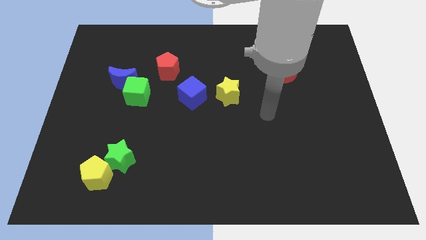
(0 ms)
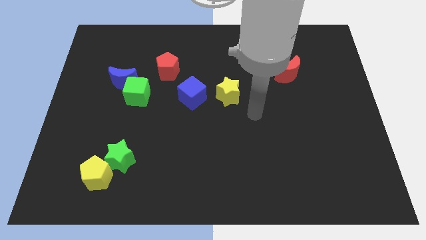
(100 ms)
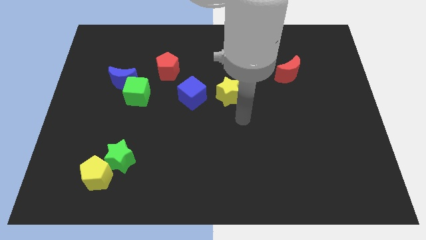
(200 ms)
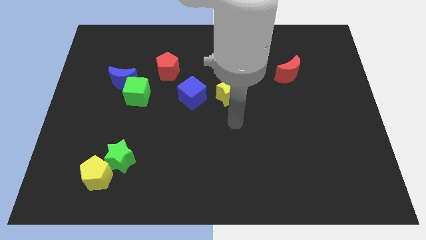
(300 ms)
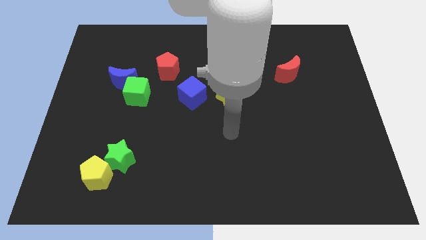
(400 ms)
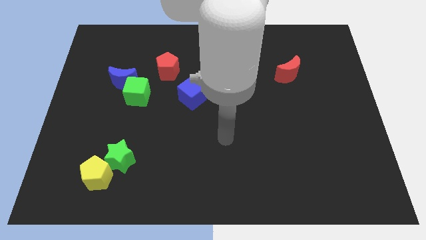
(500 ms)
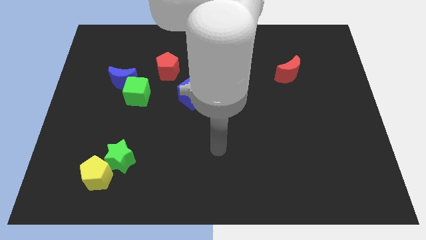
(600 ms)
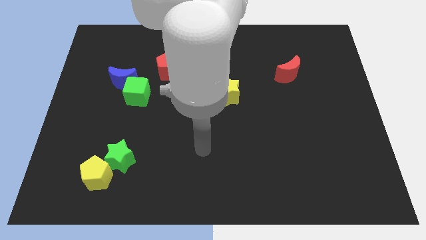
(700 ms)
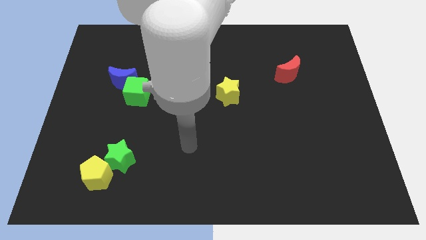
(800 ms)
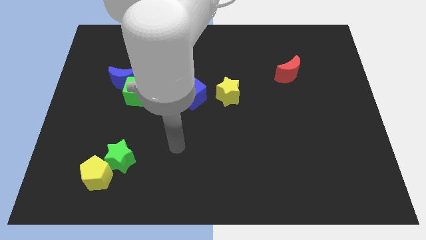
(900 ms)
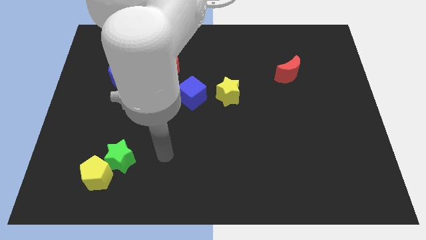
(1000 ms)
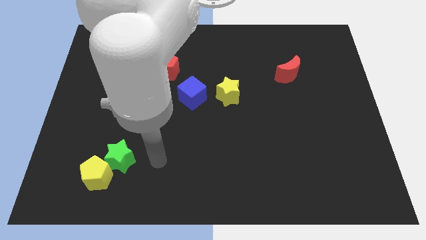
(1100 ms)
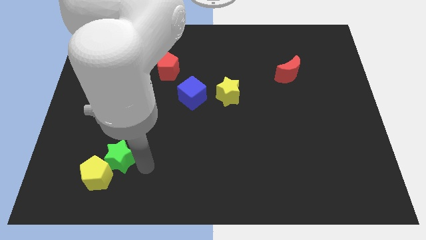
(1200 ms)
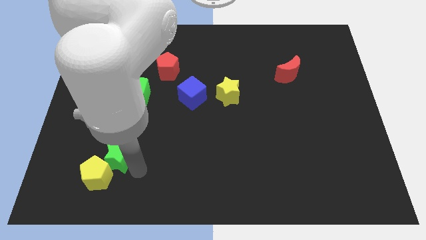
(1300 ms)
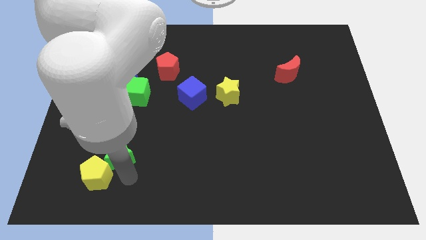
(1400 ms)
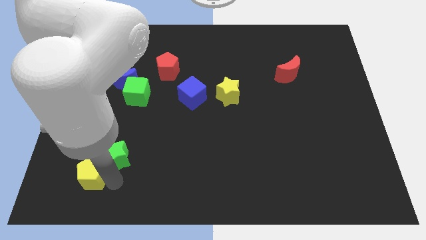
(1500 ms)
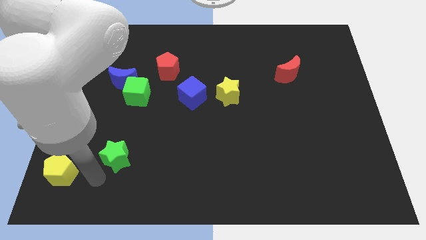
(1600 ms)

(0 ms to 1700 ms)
separate the green star from the yellow pentagon

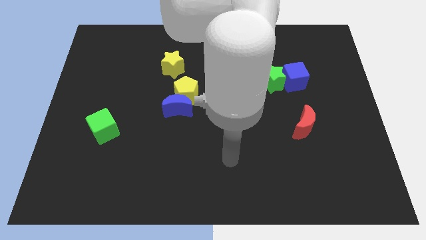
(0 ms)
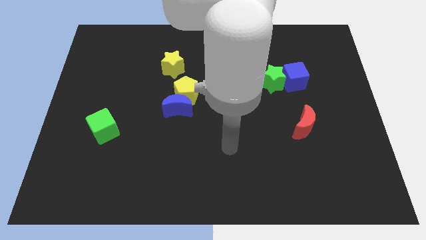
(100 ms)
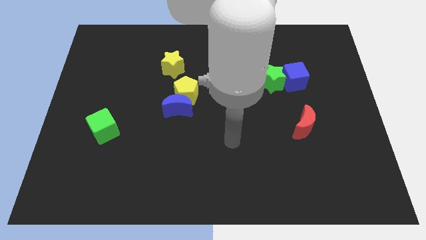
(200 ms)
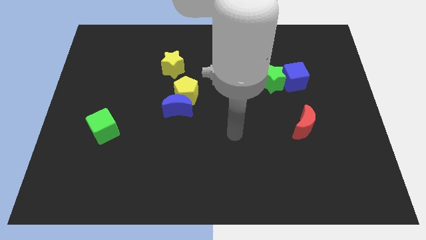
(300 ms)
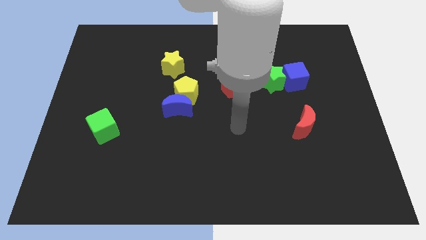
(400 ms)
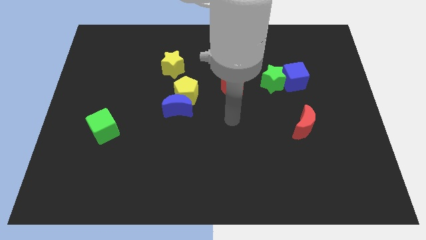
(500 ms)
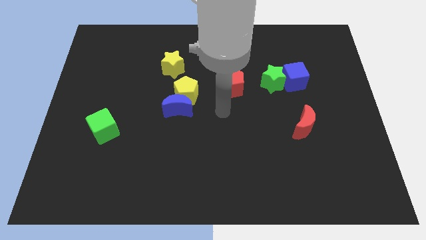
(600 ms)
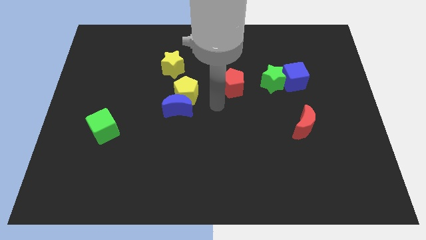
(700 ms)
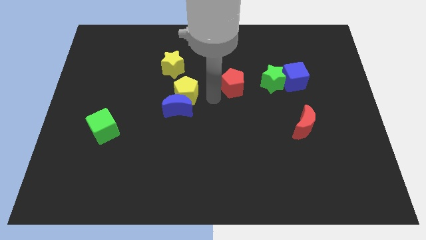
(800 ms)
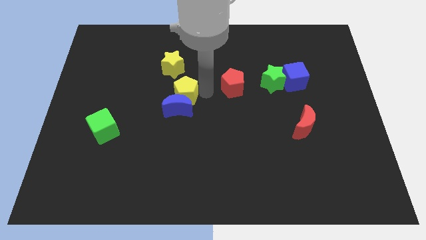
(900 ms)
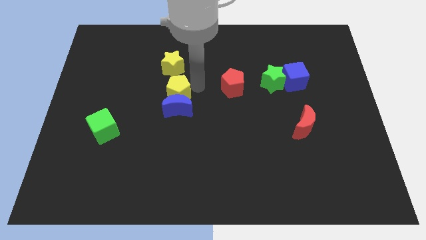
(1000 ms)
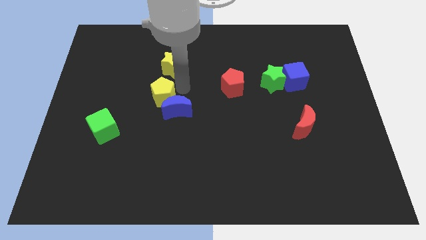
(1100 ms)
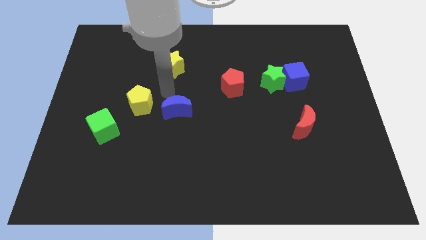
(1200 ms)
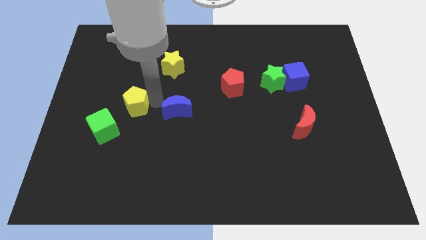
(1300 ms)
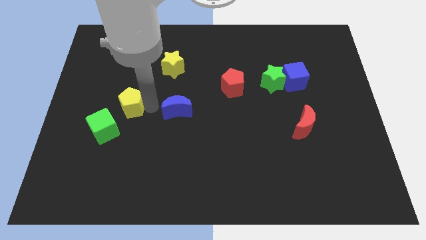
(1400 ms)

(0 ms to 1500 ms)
move the blue moon away from the yellow pentagon

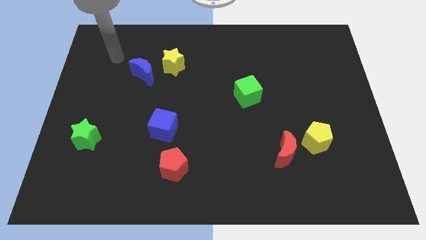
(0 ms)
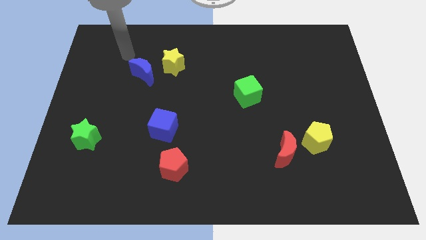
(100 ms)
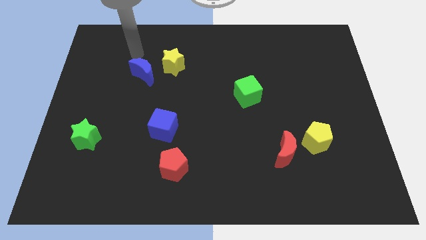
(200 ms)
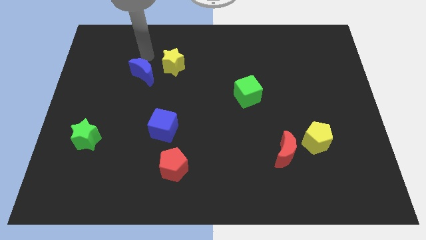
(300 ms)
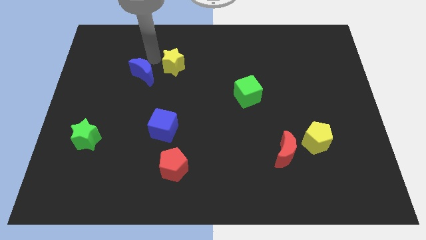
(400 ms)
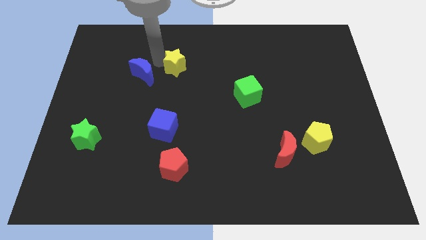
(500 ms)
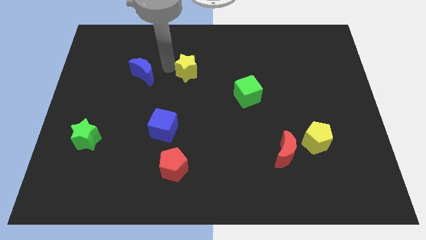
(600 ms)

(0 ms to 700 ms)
pull the blue moon apart from the yellow star

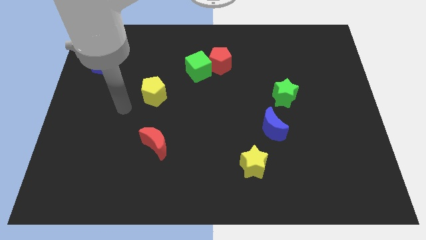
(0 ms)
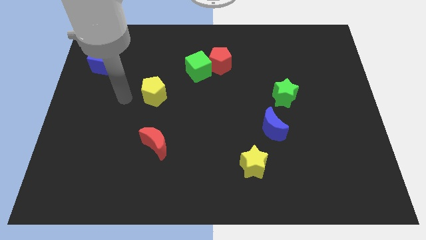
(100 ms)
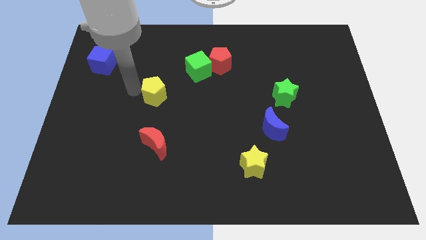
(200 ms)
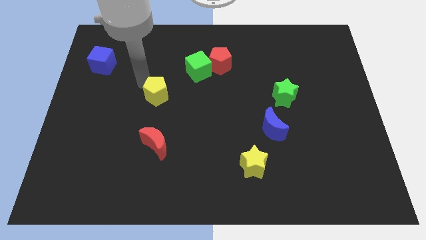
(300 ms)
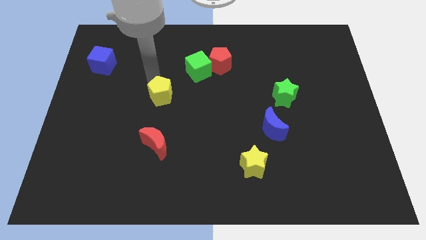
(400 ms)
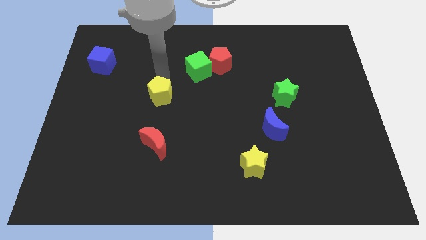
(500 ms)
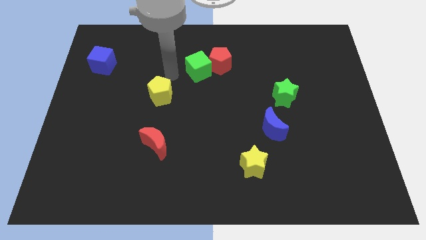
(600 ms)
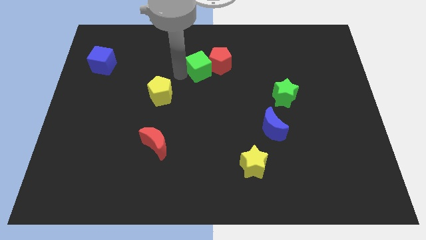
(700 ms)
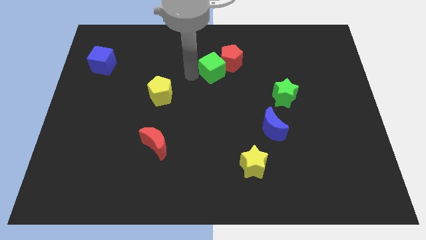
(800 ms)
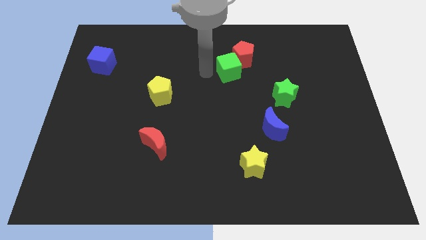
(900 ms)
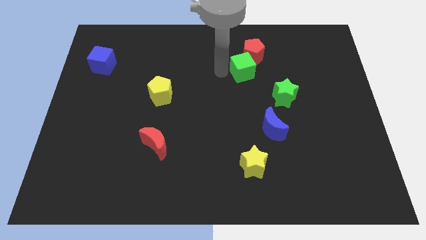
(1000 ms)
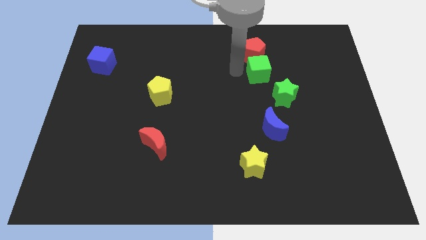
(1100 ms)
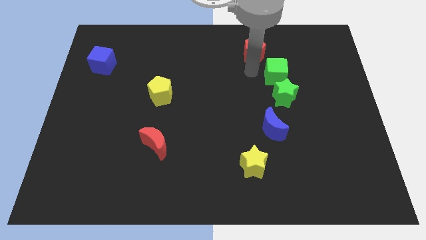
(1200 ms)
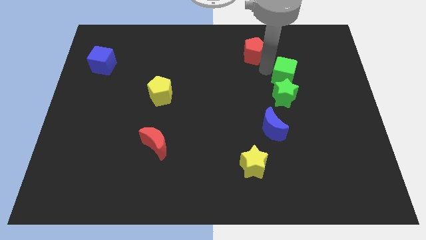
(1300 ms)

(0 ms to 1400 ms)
separate the red pentagon from the green cube

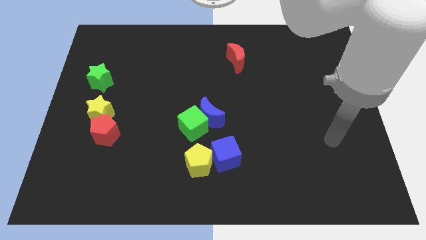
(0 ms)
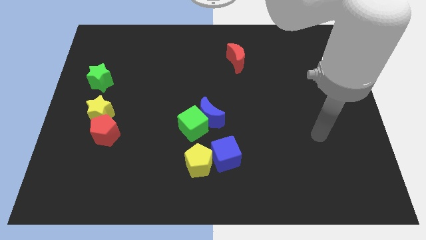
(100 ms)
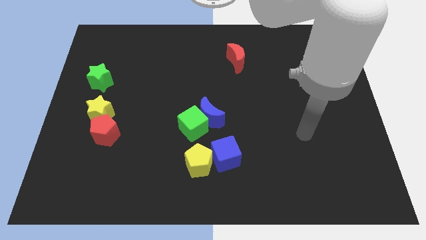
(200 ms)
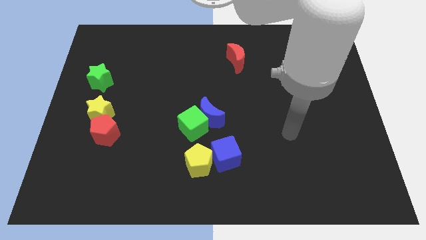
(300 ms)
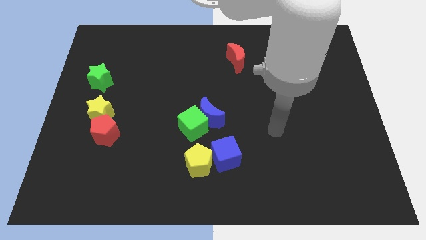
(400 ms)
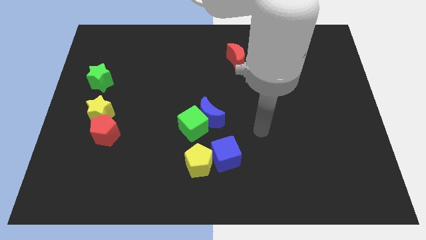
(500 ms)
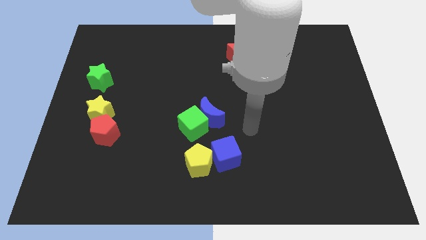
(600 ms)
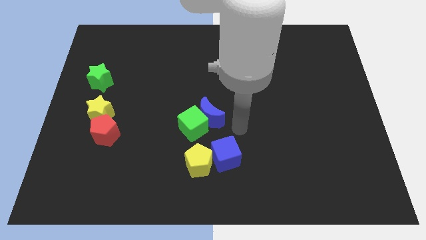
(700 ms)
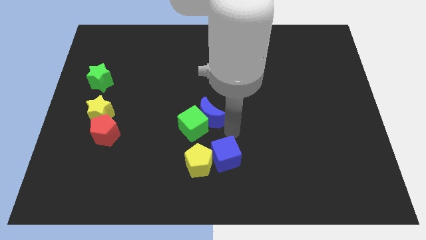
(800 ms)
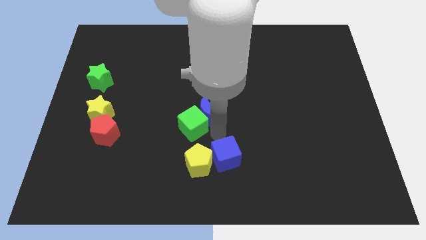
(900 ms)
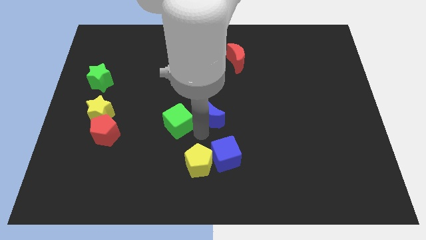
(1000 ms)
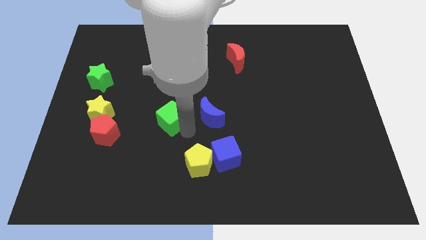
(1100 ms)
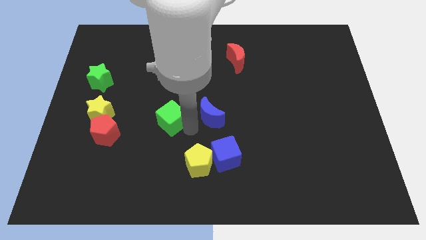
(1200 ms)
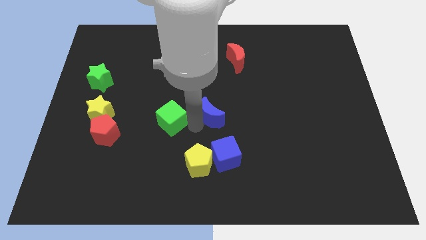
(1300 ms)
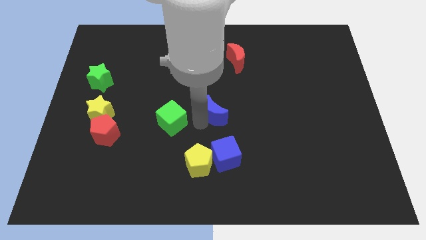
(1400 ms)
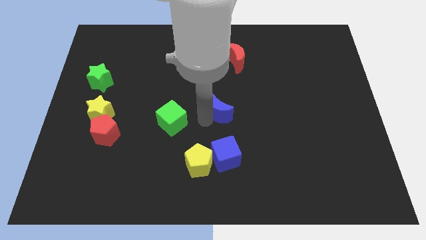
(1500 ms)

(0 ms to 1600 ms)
move the blue moon away from the green cube

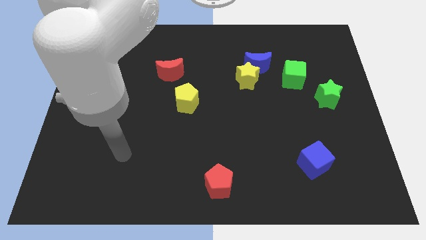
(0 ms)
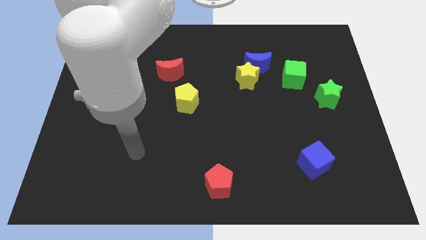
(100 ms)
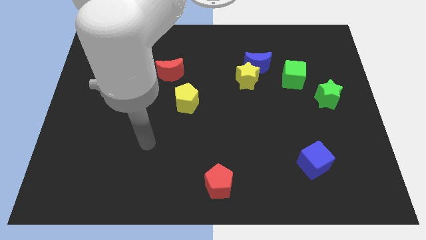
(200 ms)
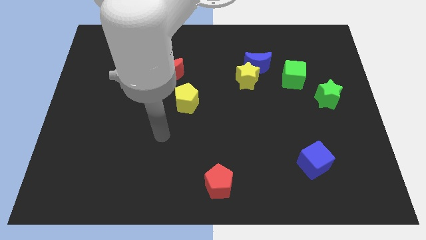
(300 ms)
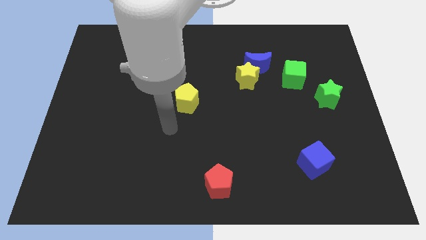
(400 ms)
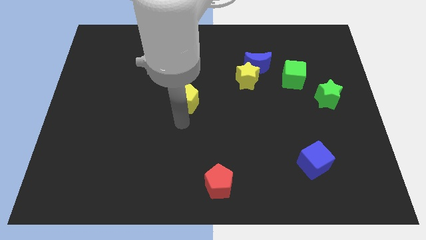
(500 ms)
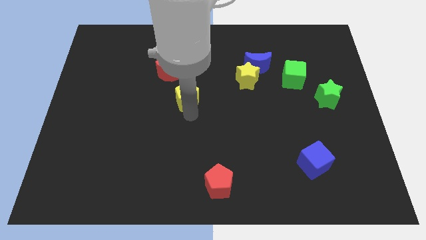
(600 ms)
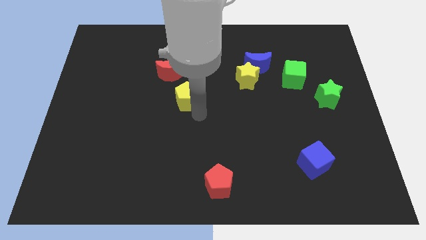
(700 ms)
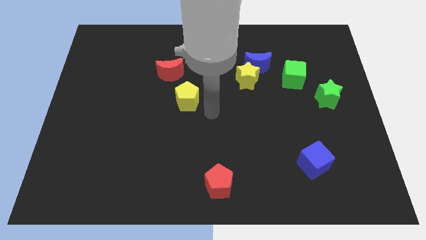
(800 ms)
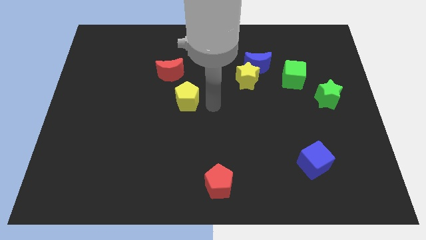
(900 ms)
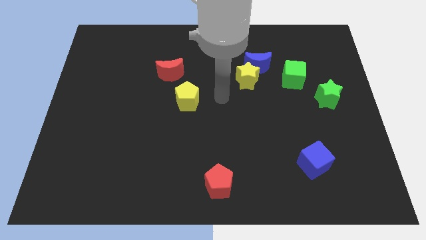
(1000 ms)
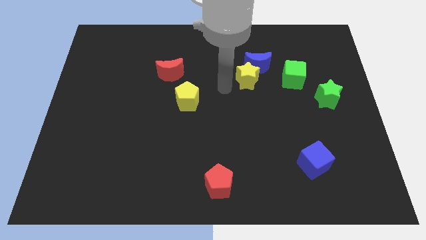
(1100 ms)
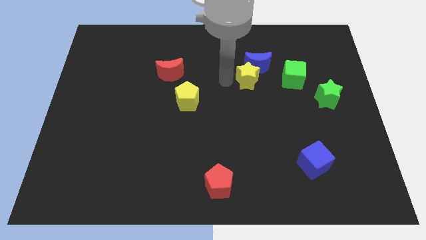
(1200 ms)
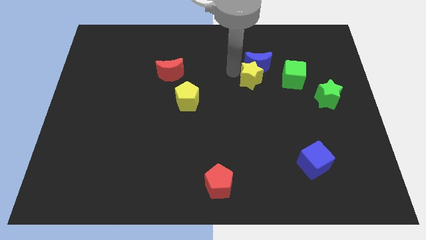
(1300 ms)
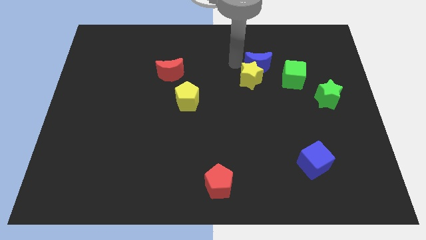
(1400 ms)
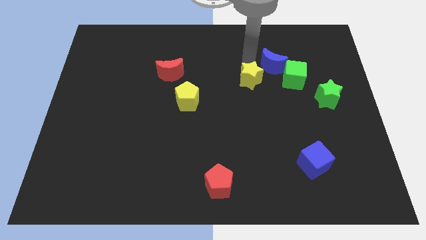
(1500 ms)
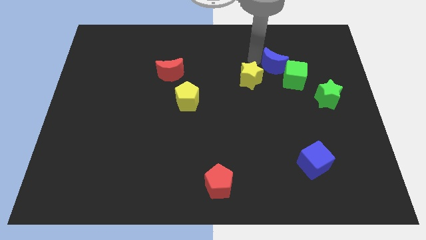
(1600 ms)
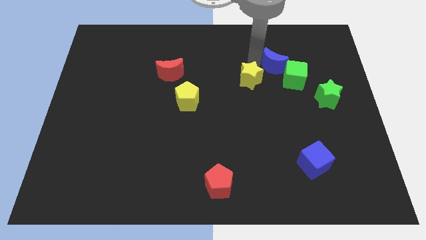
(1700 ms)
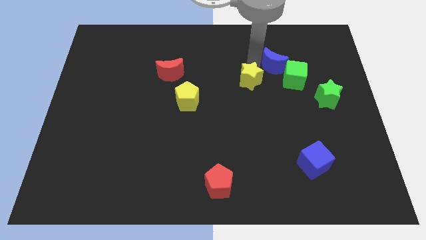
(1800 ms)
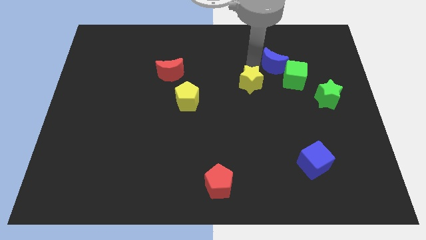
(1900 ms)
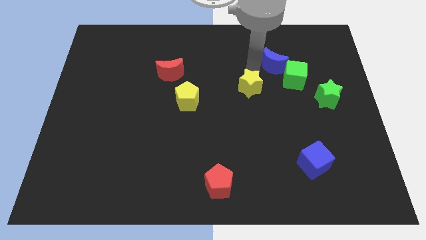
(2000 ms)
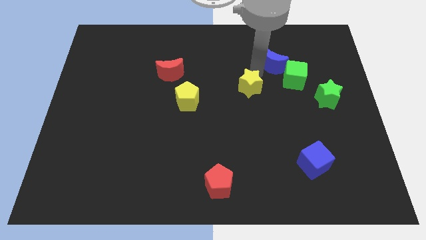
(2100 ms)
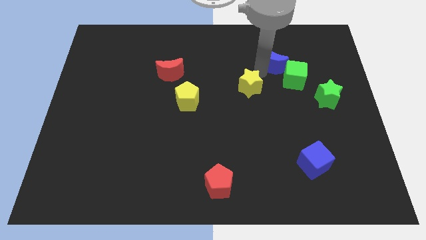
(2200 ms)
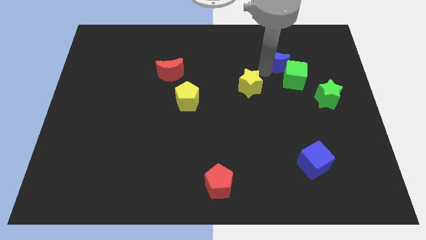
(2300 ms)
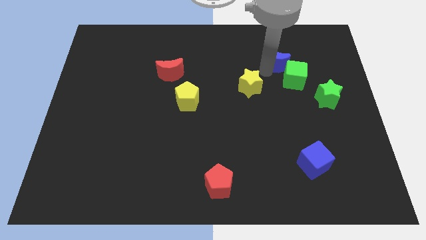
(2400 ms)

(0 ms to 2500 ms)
pull the yellow star apart from the blue moon
